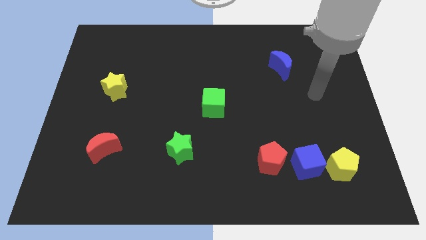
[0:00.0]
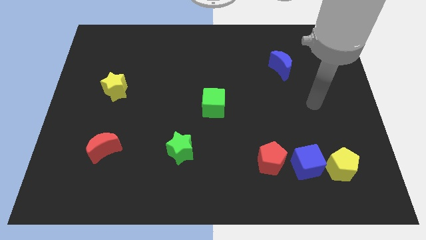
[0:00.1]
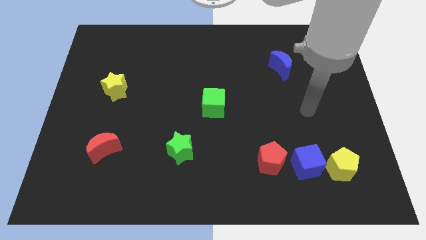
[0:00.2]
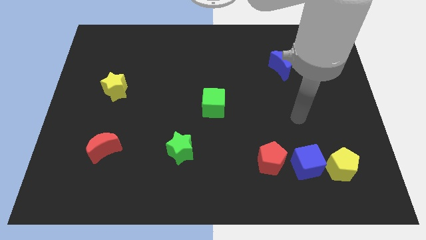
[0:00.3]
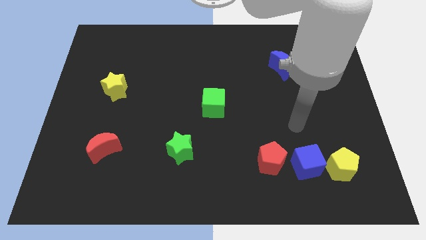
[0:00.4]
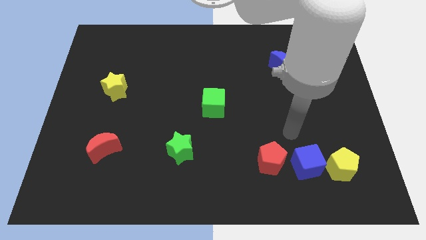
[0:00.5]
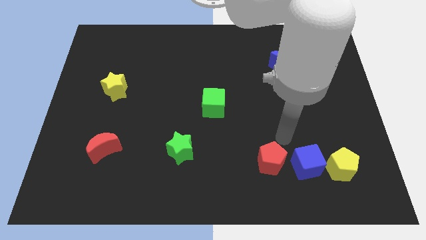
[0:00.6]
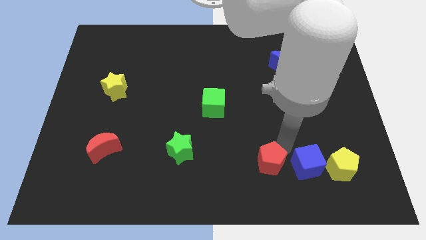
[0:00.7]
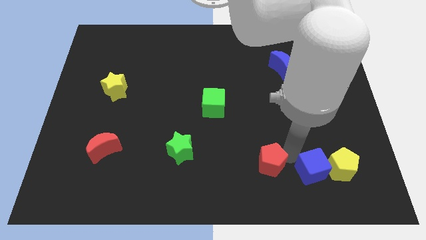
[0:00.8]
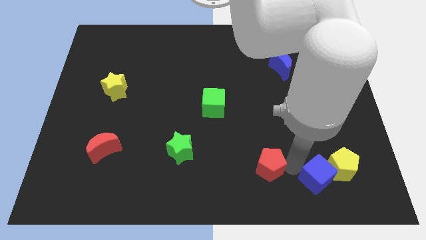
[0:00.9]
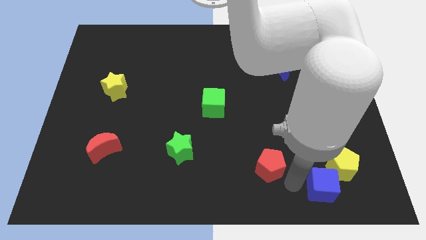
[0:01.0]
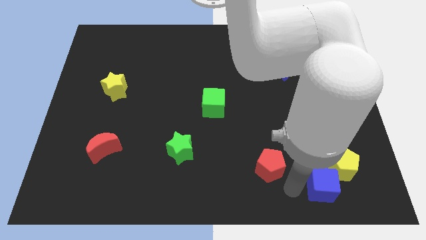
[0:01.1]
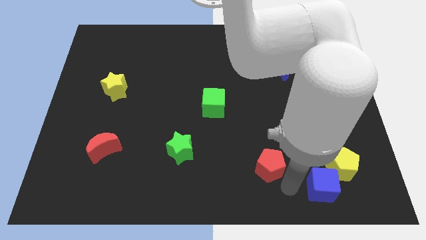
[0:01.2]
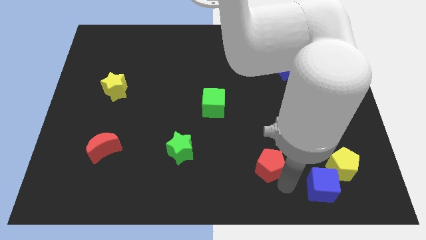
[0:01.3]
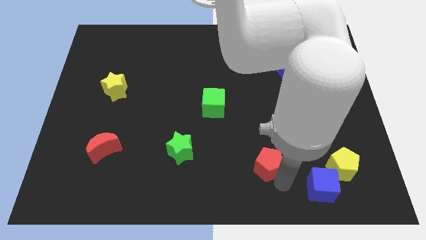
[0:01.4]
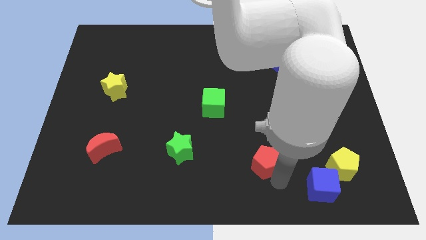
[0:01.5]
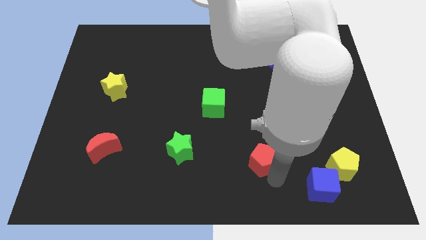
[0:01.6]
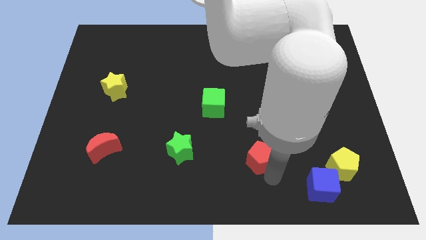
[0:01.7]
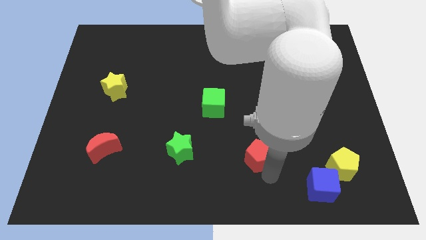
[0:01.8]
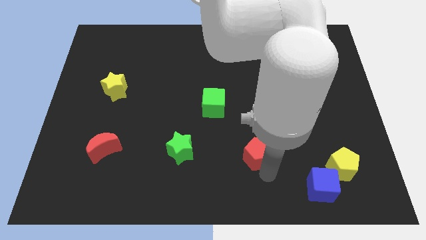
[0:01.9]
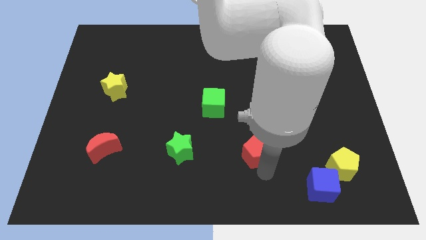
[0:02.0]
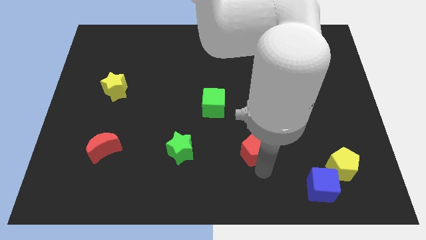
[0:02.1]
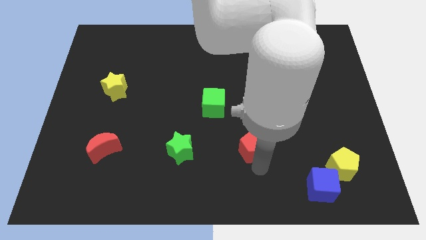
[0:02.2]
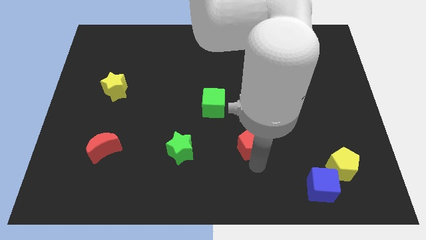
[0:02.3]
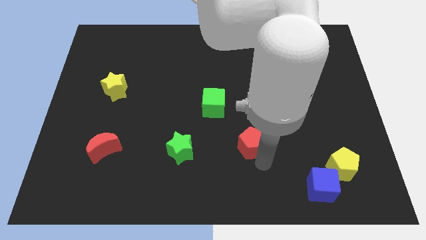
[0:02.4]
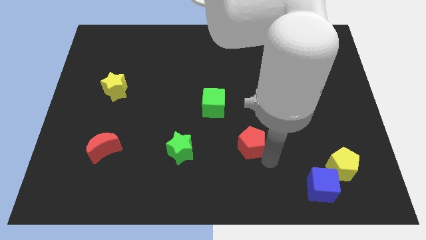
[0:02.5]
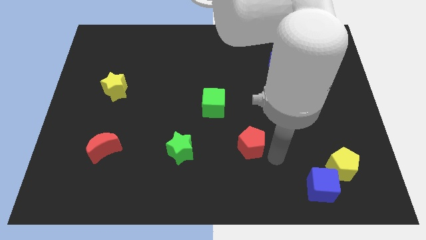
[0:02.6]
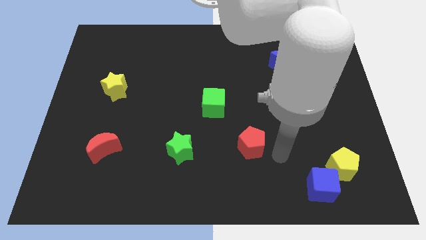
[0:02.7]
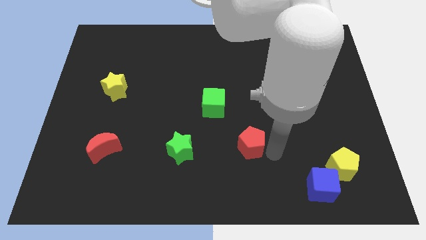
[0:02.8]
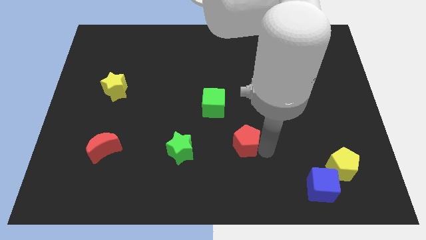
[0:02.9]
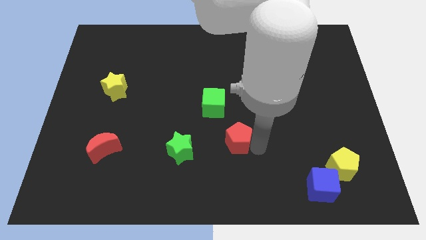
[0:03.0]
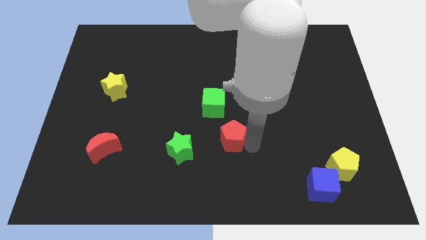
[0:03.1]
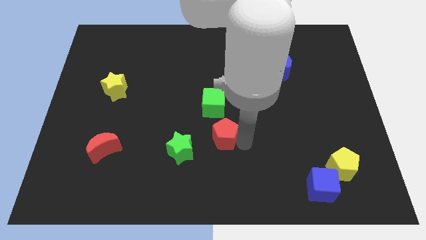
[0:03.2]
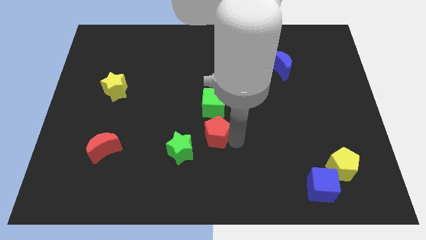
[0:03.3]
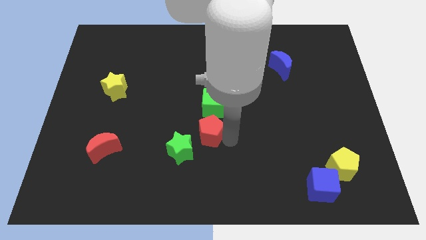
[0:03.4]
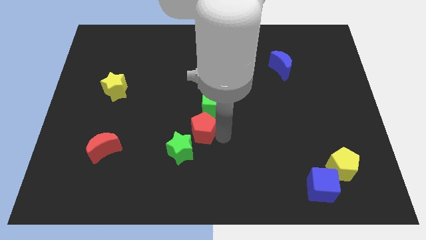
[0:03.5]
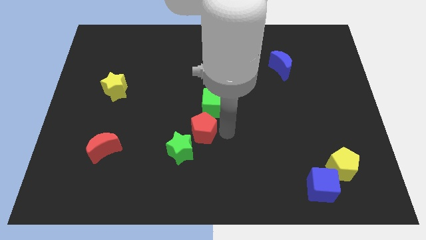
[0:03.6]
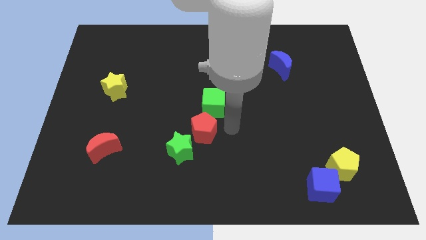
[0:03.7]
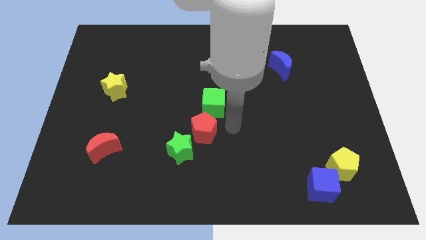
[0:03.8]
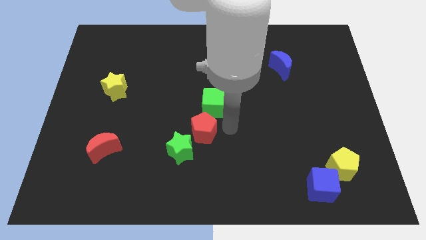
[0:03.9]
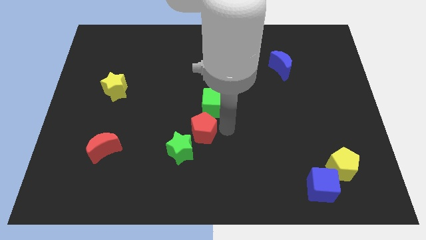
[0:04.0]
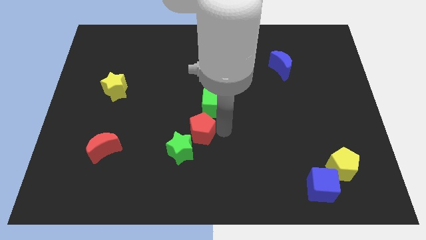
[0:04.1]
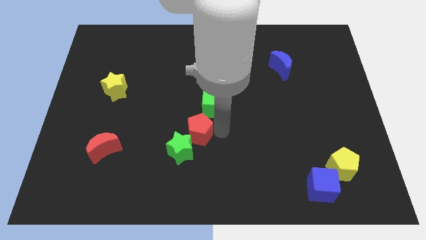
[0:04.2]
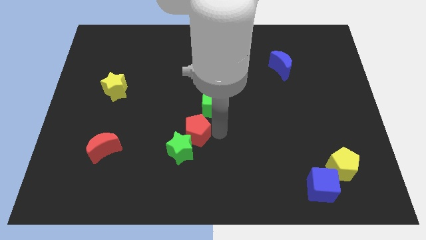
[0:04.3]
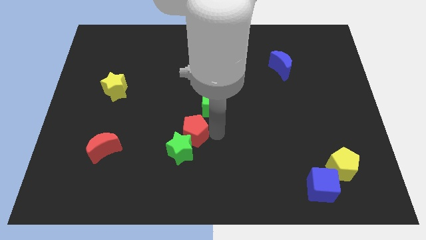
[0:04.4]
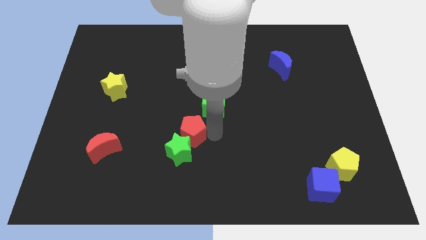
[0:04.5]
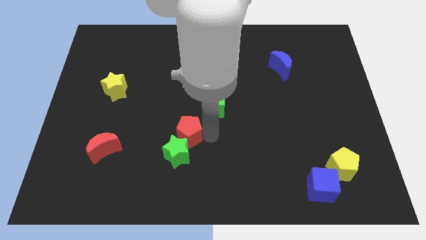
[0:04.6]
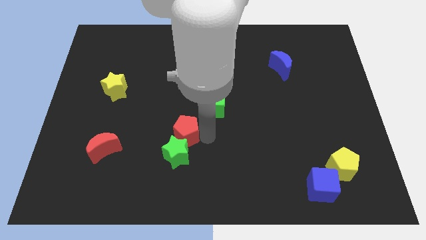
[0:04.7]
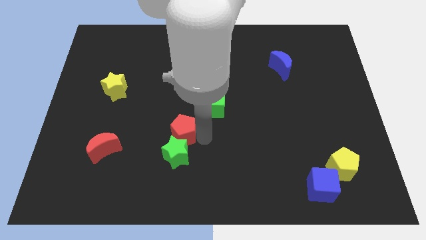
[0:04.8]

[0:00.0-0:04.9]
slide the red pentagon to the top left side of the green star

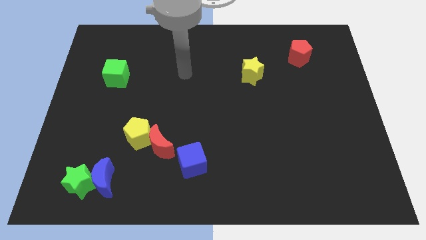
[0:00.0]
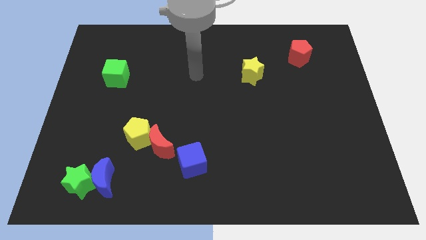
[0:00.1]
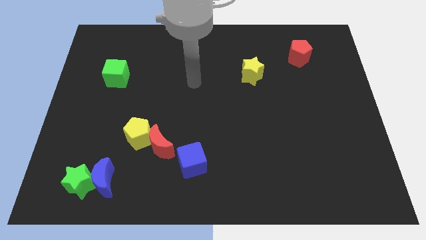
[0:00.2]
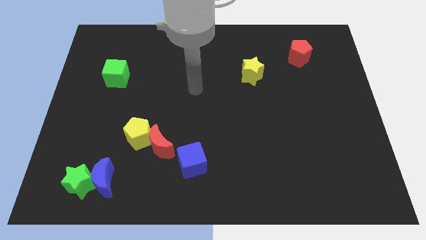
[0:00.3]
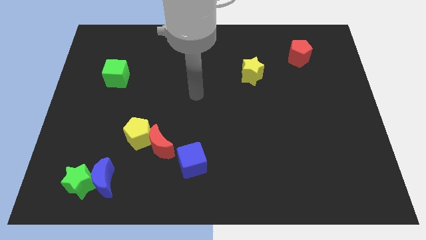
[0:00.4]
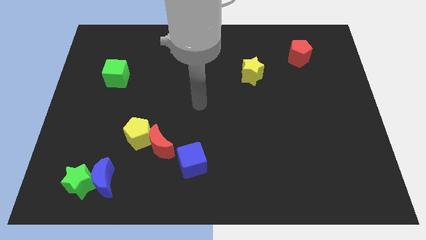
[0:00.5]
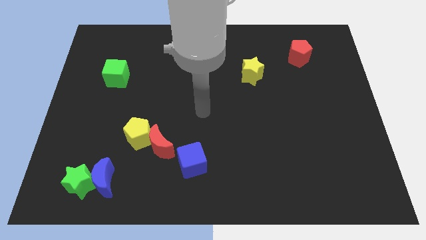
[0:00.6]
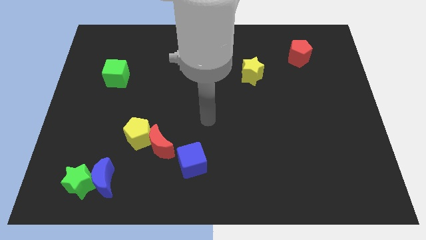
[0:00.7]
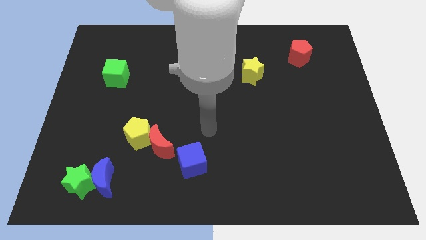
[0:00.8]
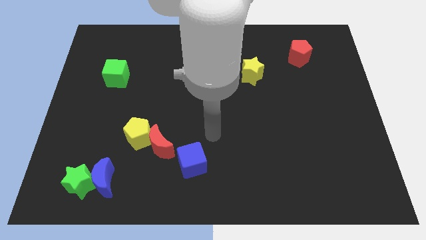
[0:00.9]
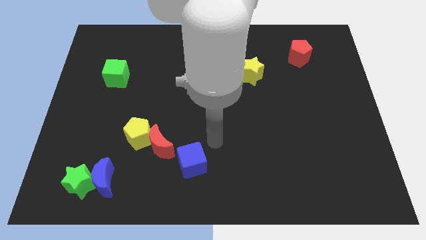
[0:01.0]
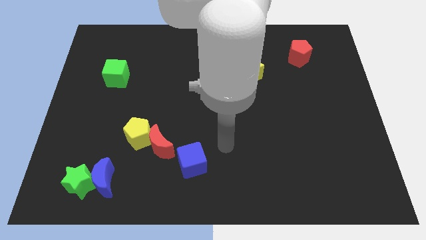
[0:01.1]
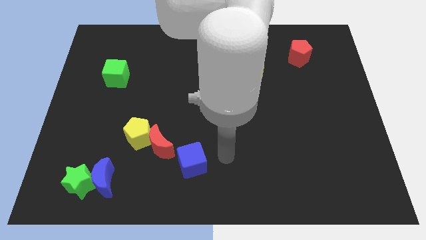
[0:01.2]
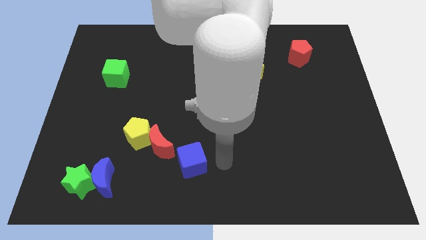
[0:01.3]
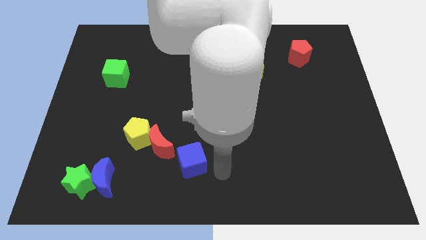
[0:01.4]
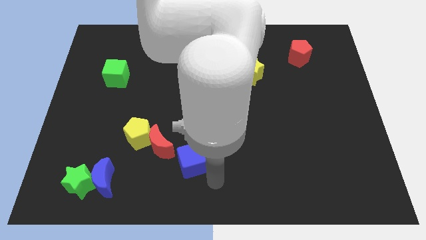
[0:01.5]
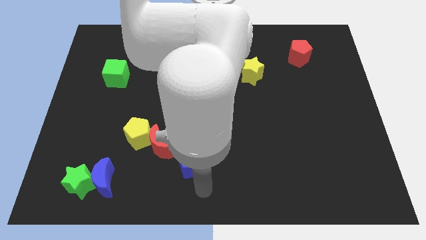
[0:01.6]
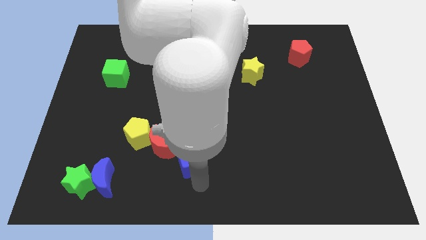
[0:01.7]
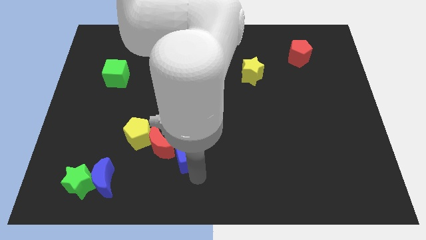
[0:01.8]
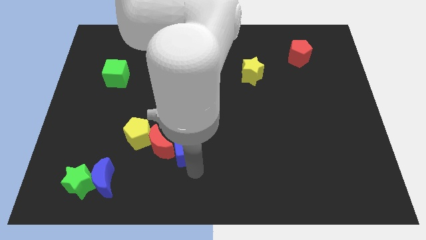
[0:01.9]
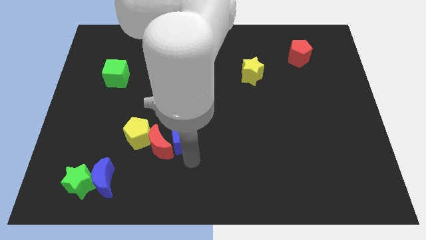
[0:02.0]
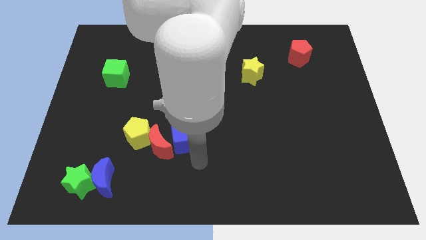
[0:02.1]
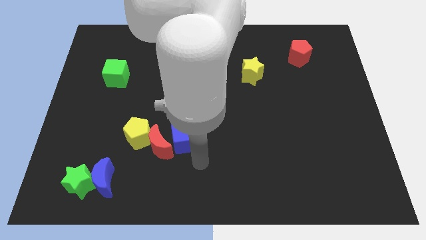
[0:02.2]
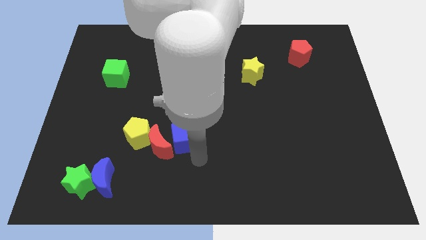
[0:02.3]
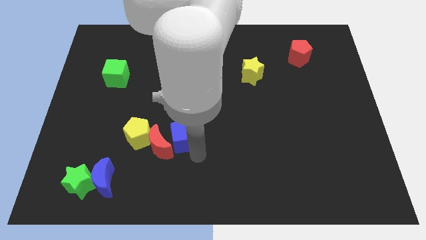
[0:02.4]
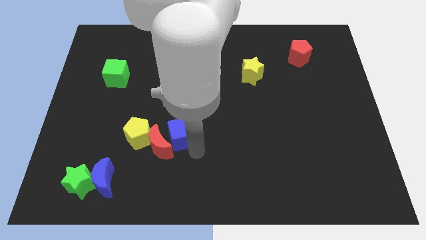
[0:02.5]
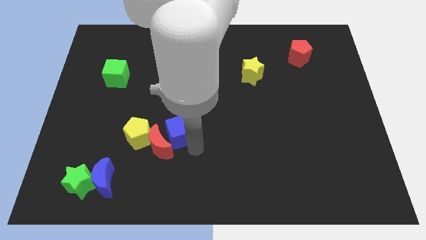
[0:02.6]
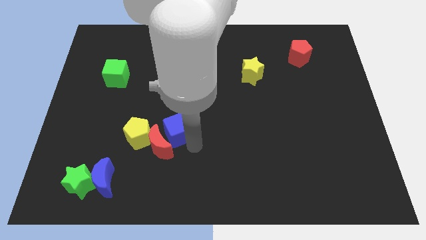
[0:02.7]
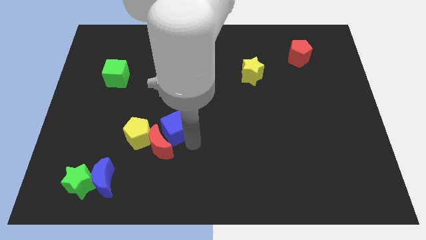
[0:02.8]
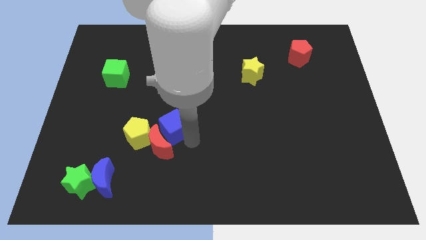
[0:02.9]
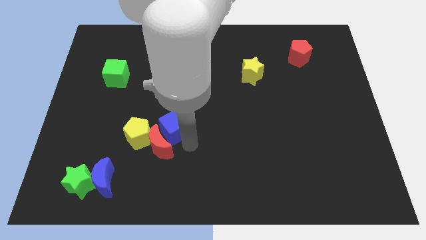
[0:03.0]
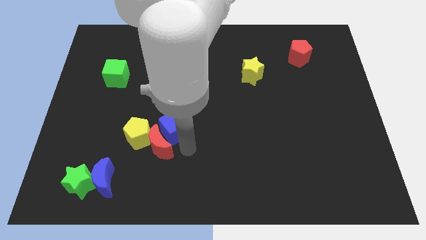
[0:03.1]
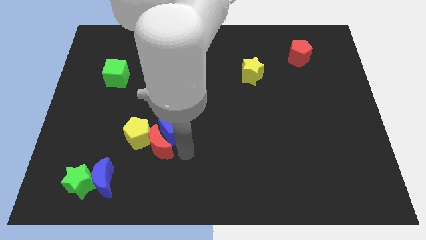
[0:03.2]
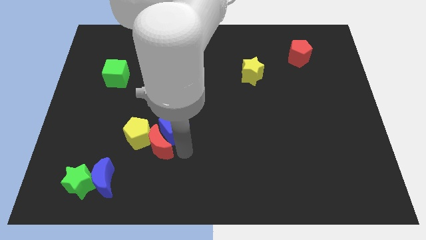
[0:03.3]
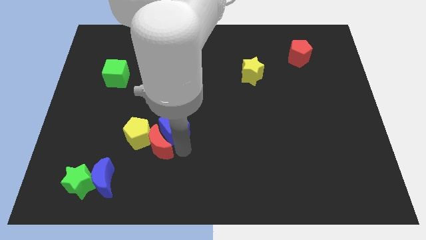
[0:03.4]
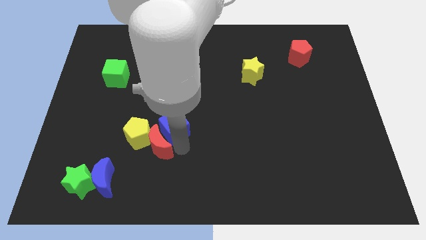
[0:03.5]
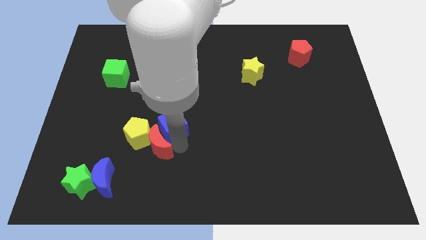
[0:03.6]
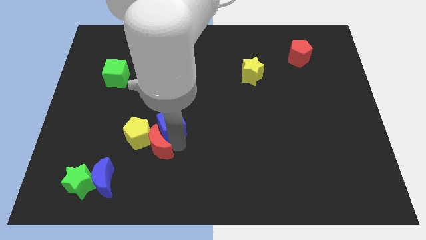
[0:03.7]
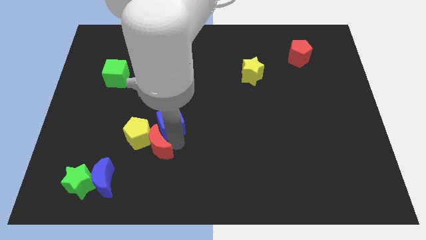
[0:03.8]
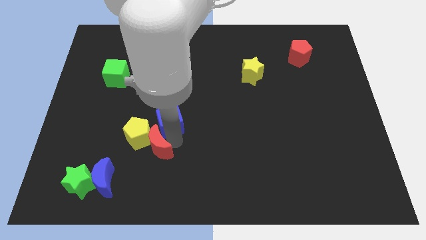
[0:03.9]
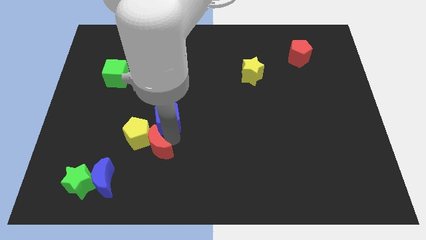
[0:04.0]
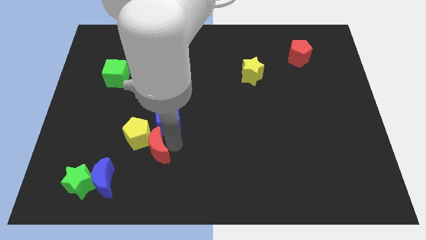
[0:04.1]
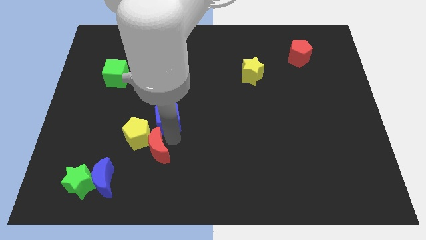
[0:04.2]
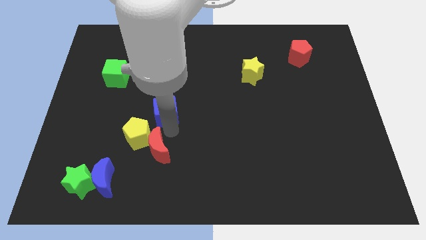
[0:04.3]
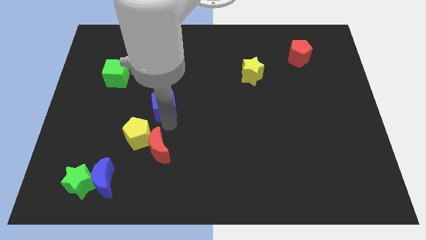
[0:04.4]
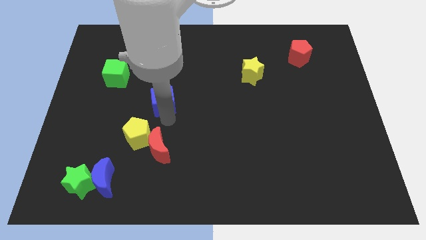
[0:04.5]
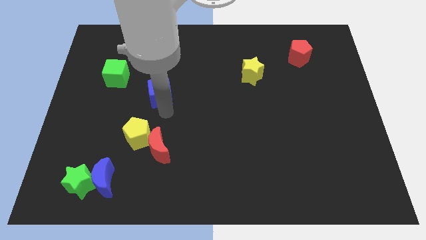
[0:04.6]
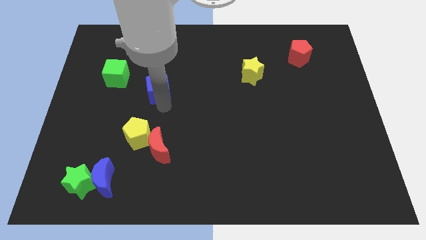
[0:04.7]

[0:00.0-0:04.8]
push the blue cube right of the green cube
